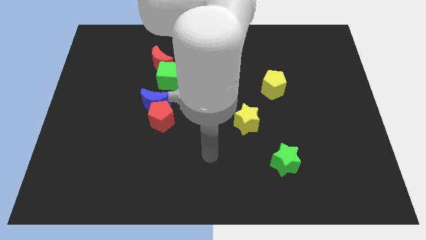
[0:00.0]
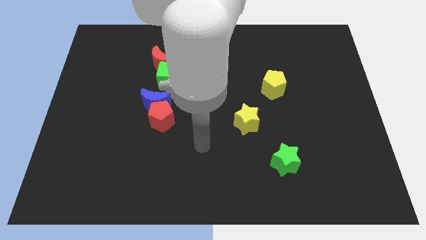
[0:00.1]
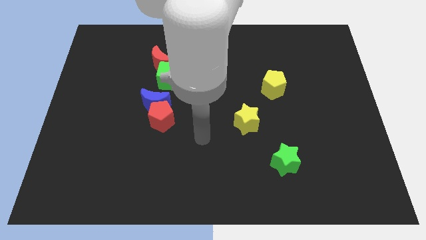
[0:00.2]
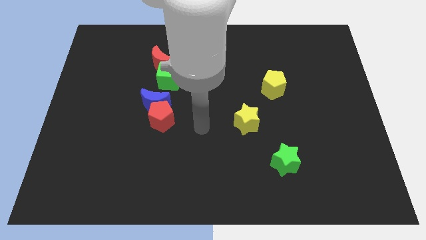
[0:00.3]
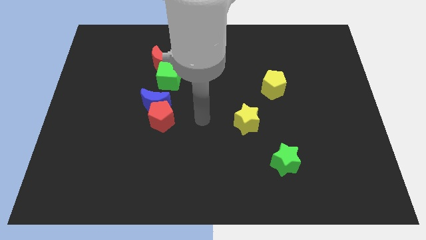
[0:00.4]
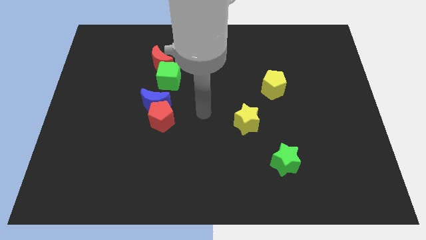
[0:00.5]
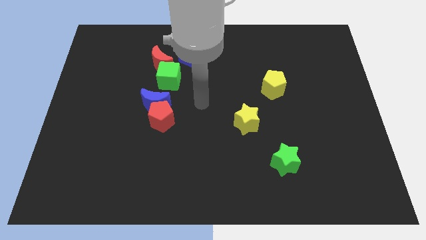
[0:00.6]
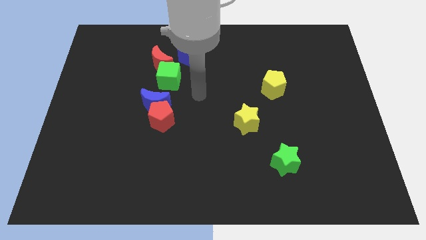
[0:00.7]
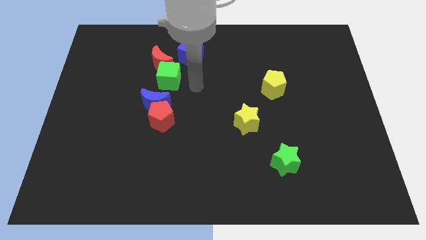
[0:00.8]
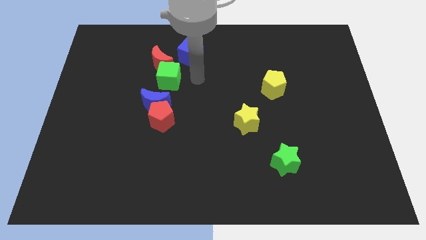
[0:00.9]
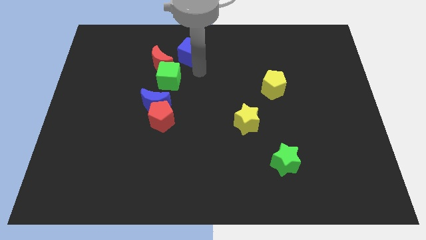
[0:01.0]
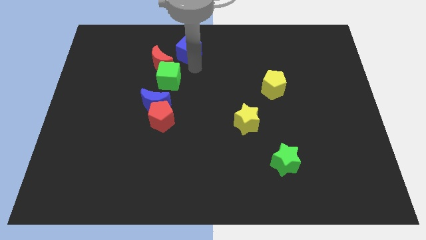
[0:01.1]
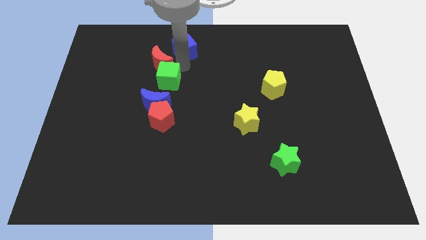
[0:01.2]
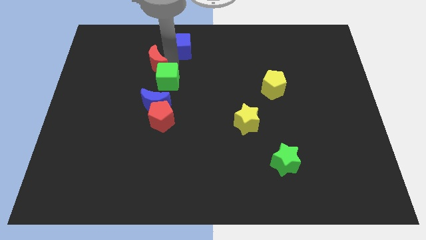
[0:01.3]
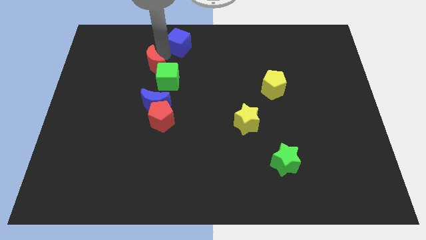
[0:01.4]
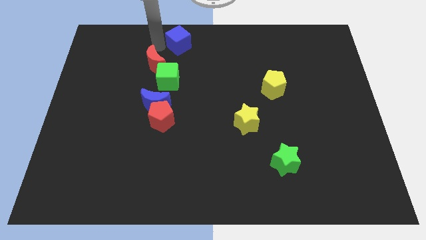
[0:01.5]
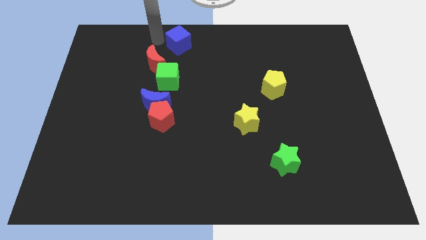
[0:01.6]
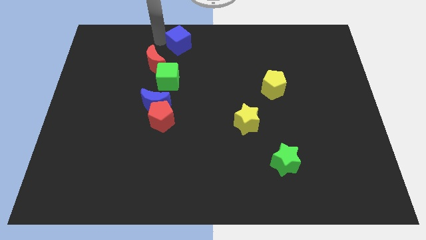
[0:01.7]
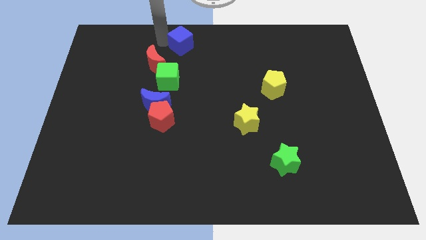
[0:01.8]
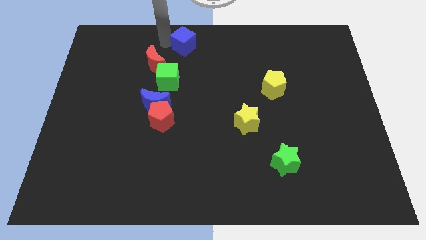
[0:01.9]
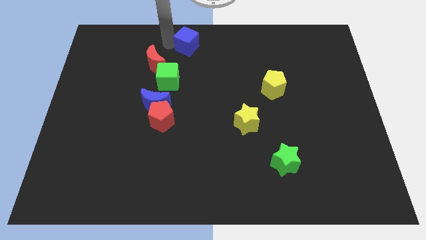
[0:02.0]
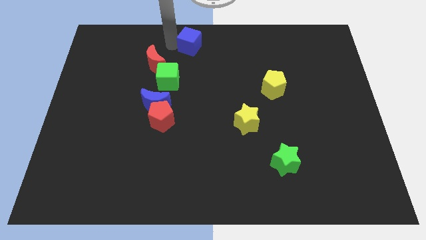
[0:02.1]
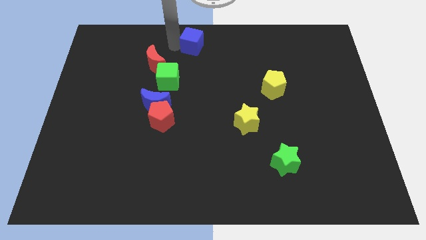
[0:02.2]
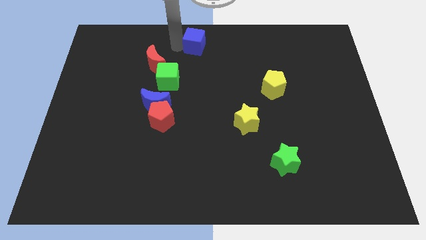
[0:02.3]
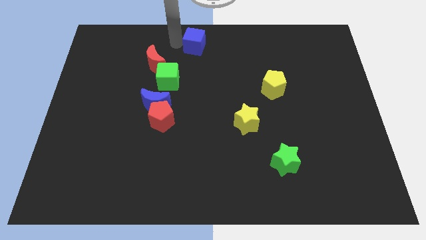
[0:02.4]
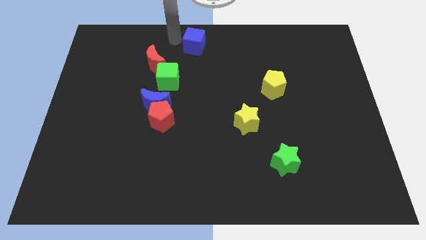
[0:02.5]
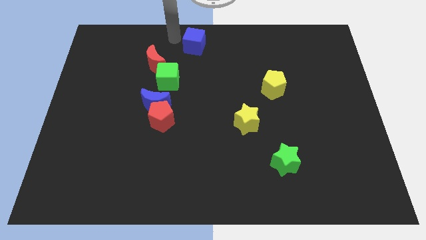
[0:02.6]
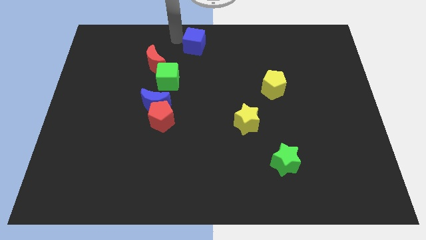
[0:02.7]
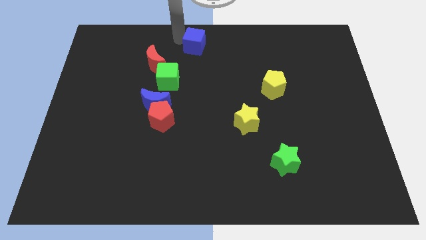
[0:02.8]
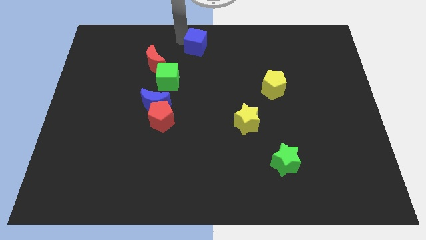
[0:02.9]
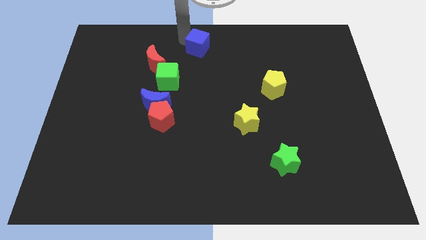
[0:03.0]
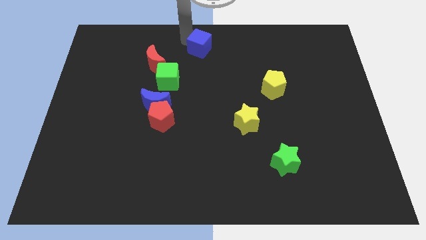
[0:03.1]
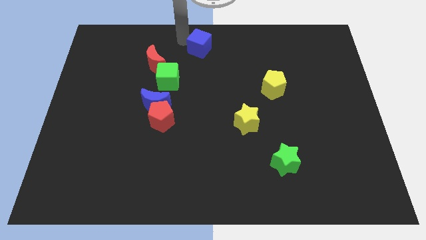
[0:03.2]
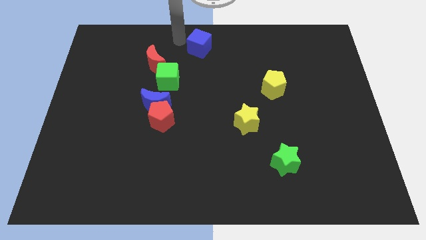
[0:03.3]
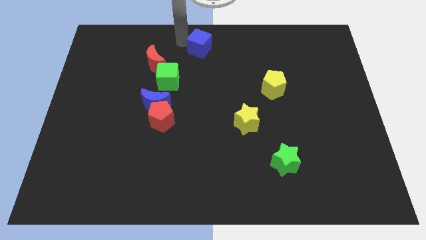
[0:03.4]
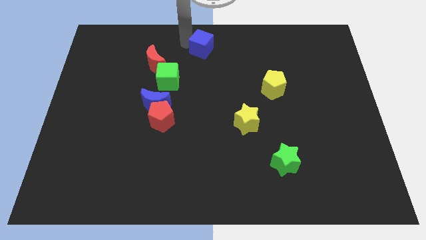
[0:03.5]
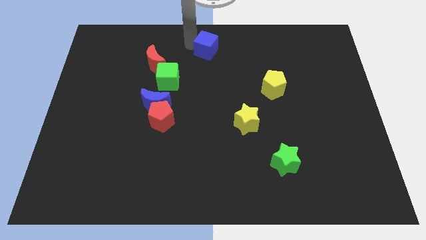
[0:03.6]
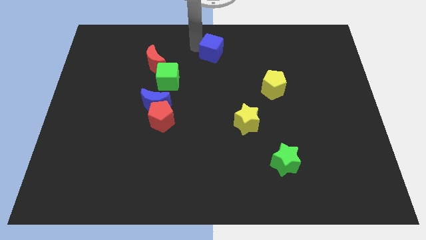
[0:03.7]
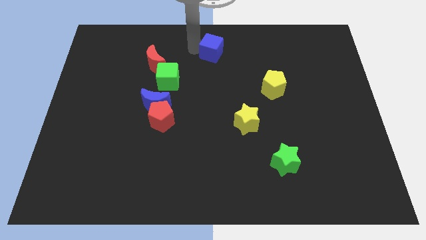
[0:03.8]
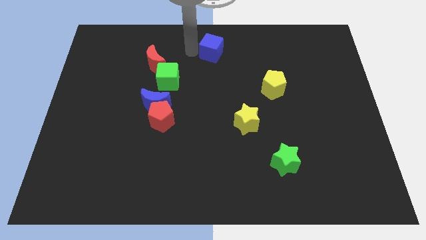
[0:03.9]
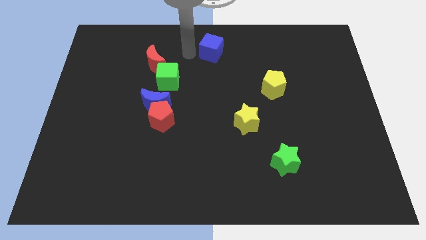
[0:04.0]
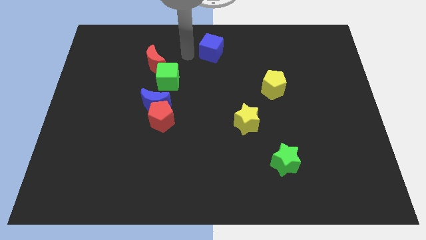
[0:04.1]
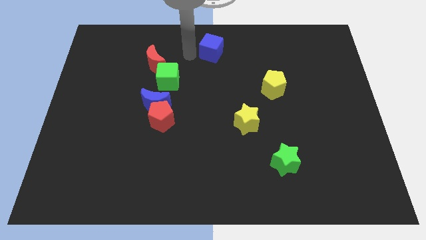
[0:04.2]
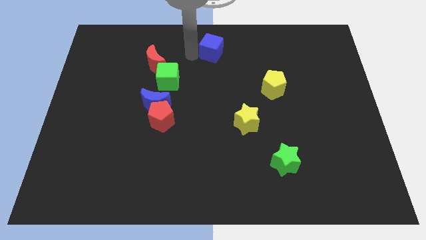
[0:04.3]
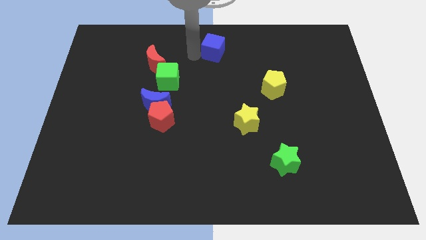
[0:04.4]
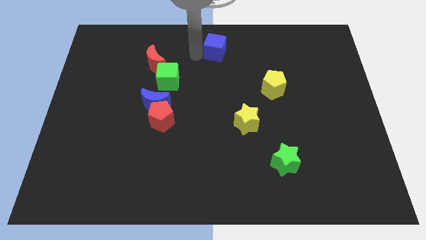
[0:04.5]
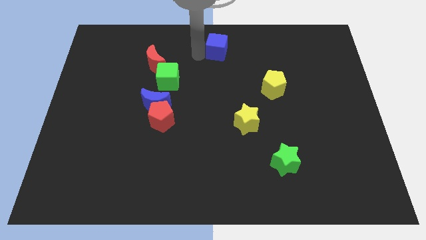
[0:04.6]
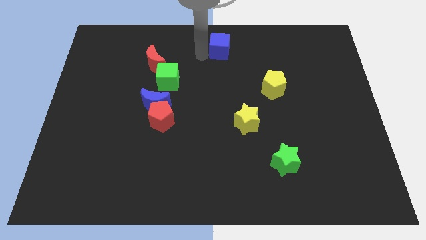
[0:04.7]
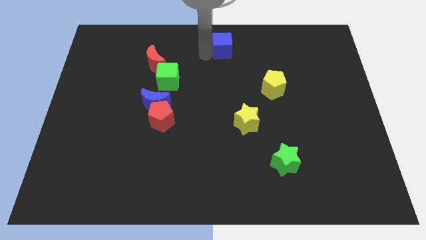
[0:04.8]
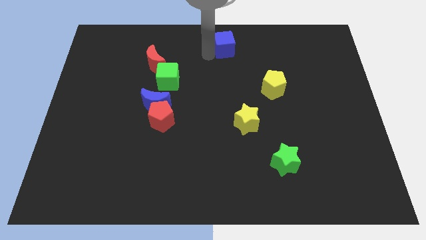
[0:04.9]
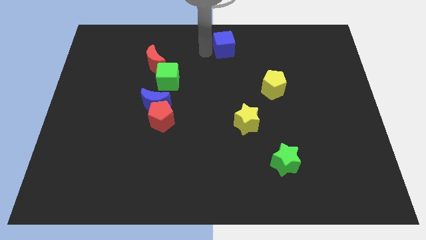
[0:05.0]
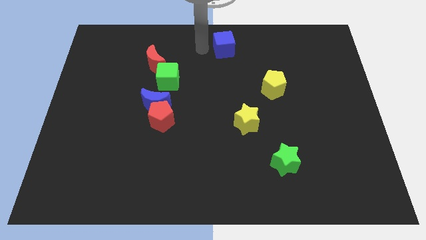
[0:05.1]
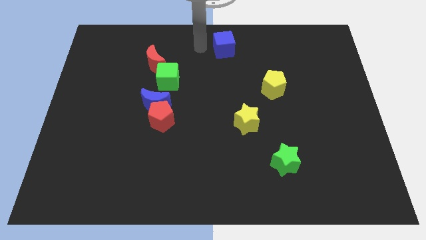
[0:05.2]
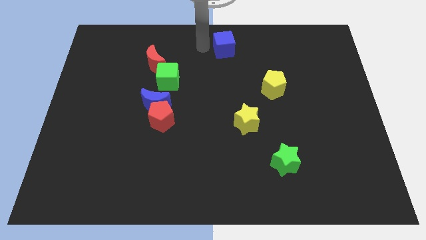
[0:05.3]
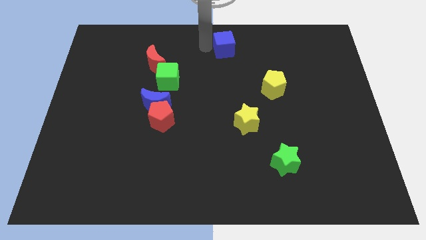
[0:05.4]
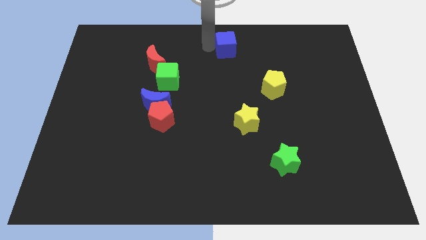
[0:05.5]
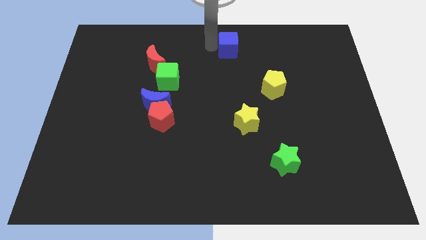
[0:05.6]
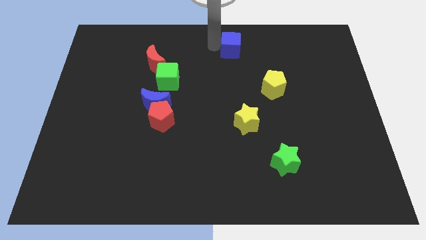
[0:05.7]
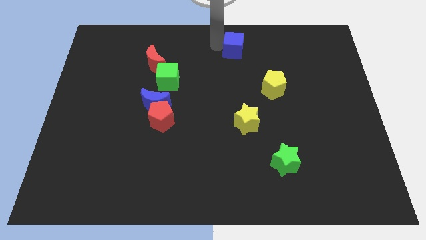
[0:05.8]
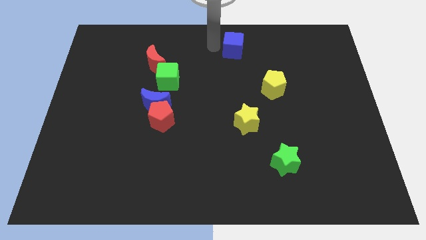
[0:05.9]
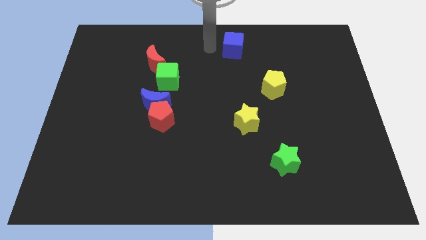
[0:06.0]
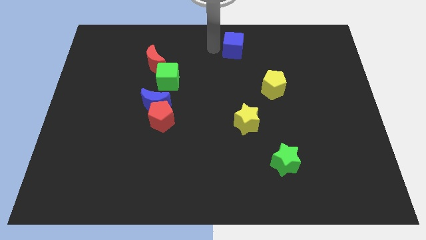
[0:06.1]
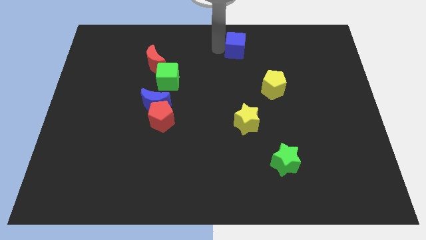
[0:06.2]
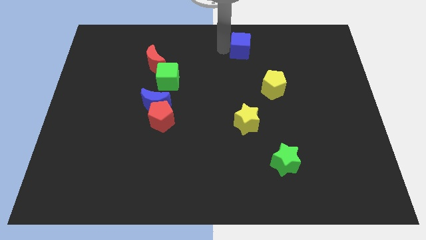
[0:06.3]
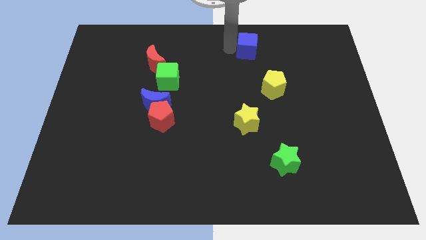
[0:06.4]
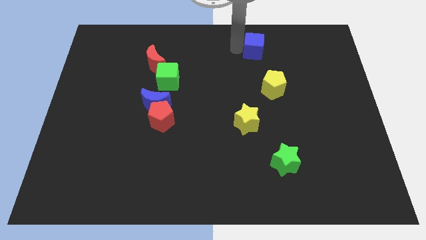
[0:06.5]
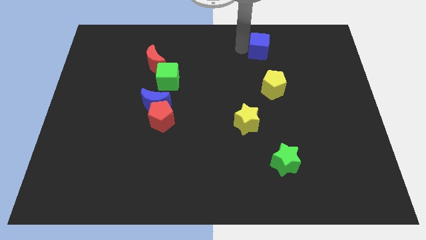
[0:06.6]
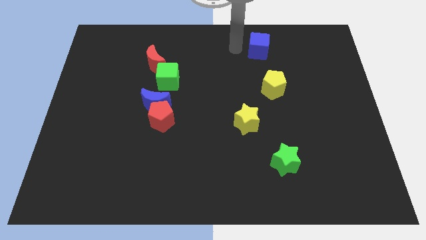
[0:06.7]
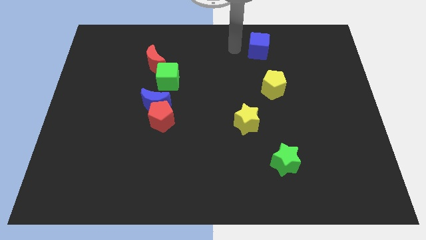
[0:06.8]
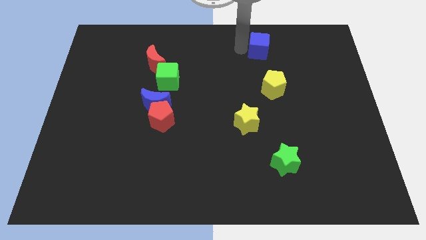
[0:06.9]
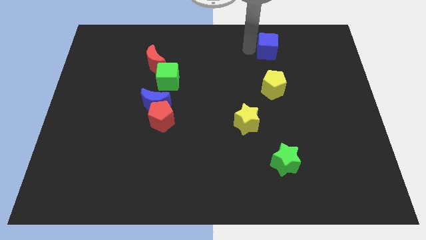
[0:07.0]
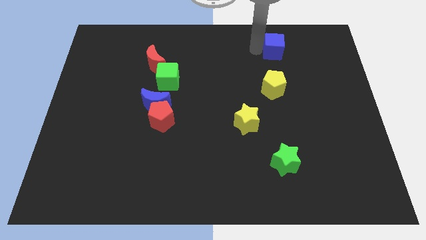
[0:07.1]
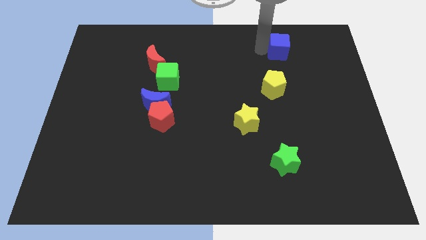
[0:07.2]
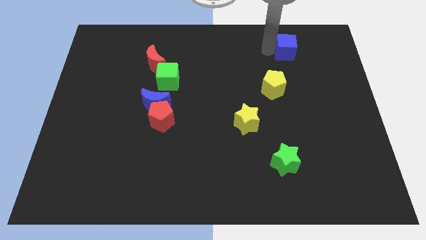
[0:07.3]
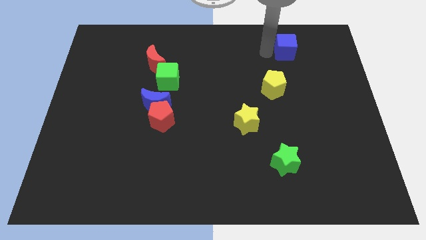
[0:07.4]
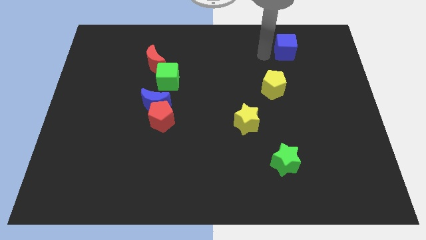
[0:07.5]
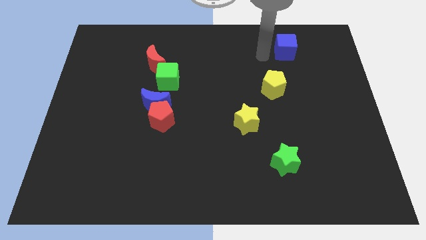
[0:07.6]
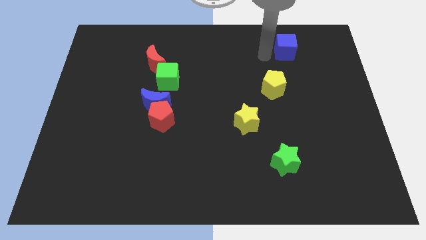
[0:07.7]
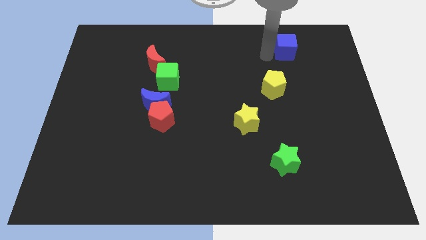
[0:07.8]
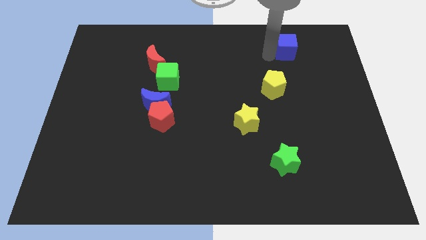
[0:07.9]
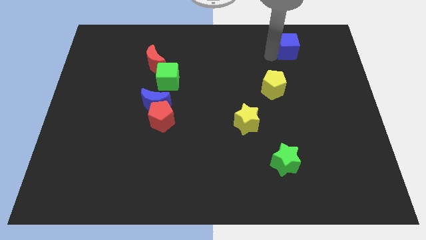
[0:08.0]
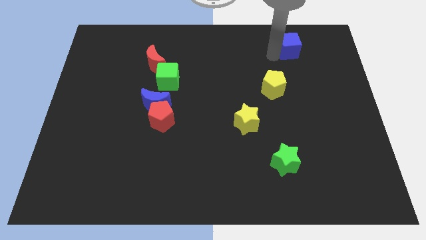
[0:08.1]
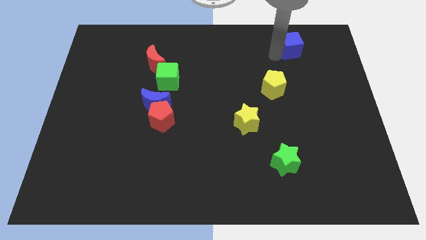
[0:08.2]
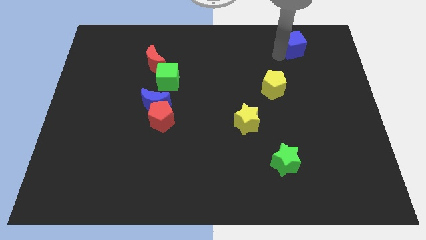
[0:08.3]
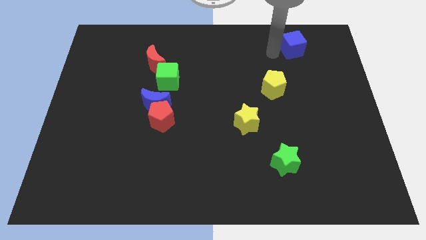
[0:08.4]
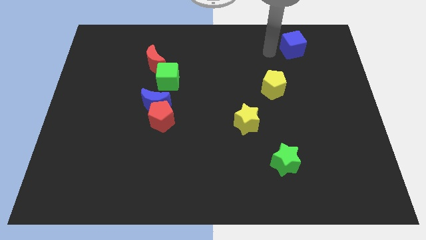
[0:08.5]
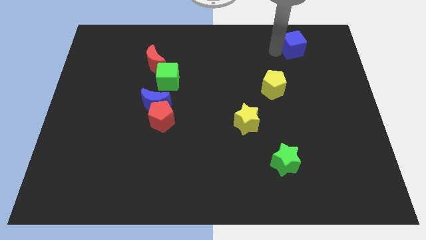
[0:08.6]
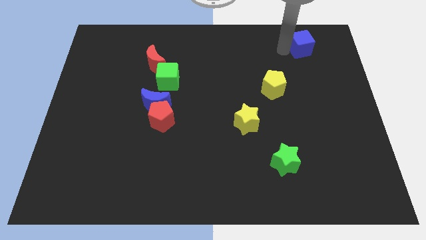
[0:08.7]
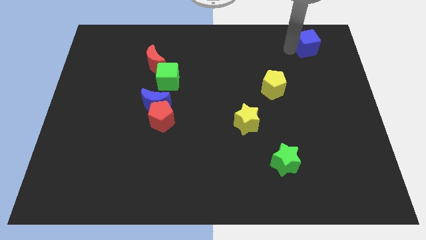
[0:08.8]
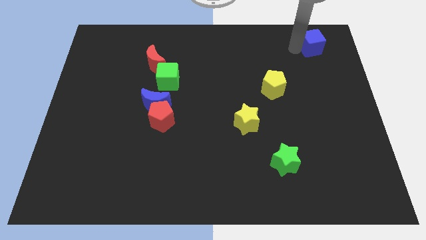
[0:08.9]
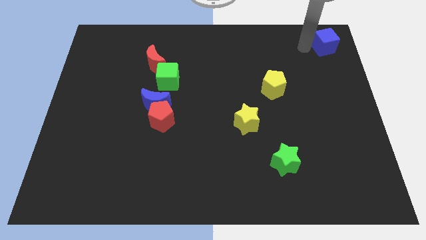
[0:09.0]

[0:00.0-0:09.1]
slide the blue cube to the upper right corner
